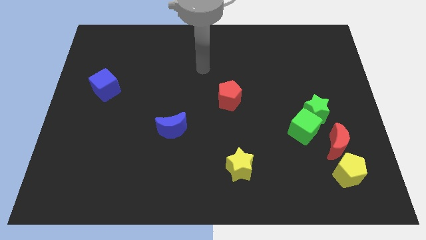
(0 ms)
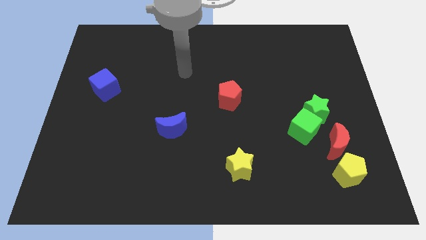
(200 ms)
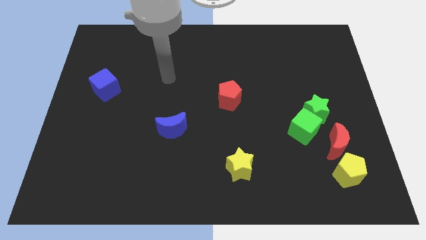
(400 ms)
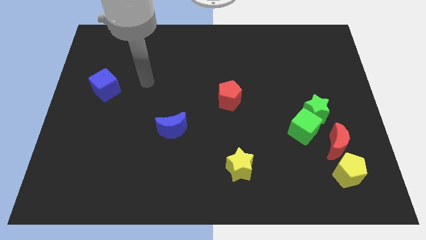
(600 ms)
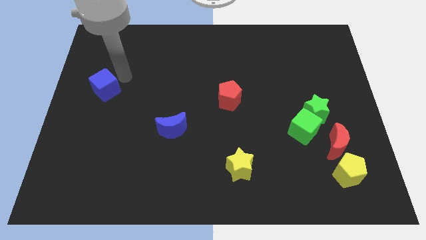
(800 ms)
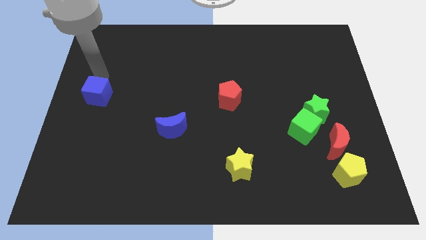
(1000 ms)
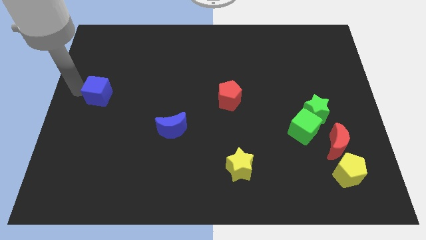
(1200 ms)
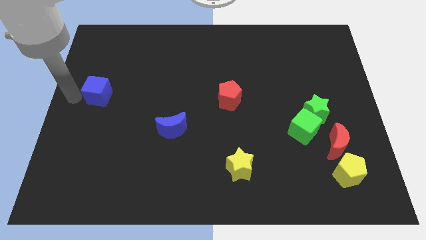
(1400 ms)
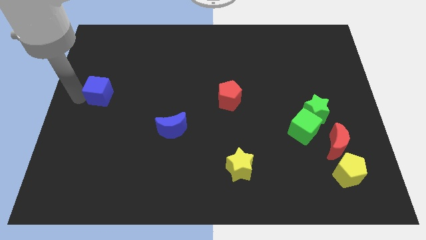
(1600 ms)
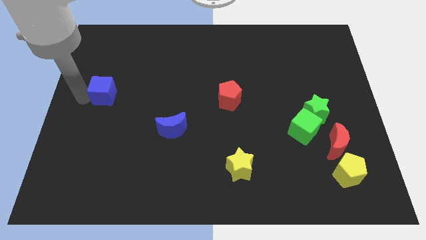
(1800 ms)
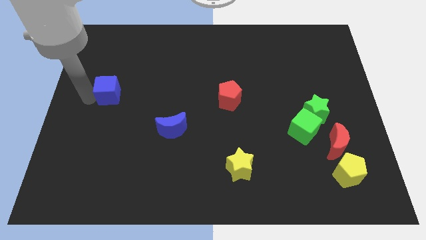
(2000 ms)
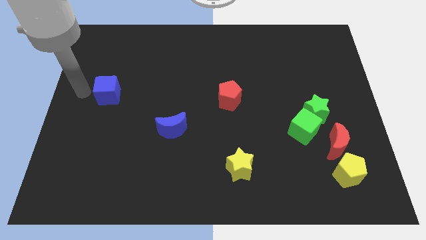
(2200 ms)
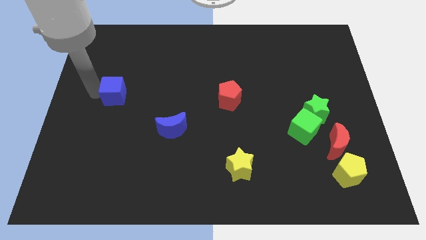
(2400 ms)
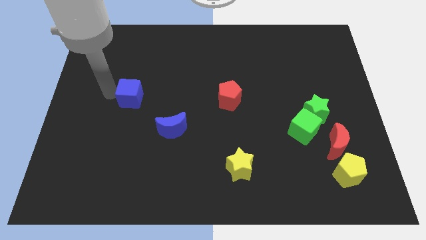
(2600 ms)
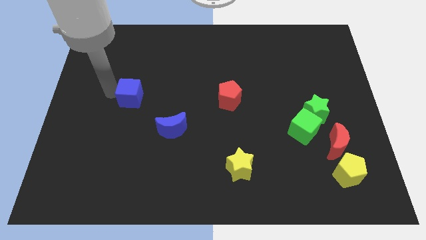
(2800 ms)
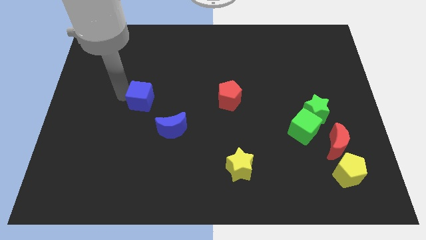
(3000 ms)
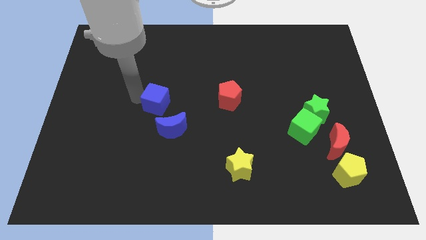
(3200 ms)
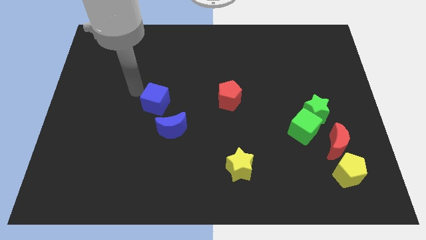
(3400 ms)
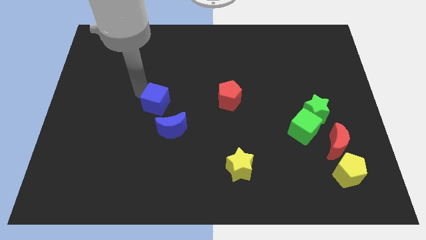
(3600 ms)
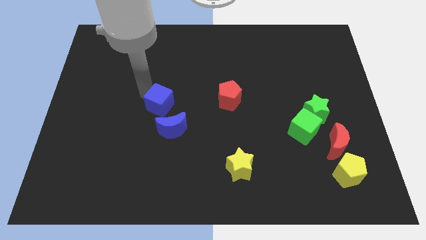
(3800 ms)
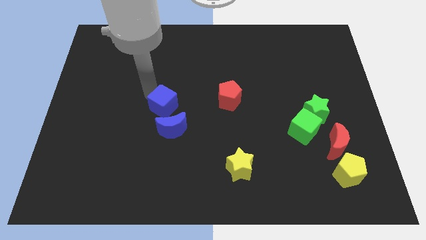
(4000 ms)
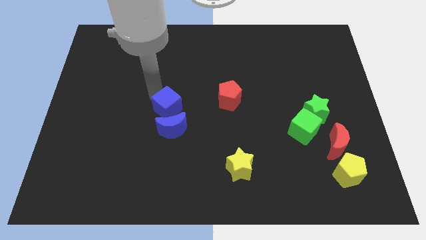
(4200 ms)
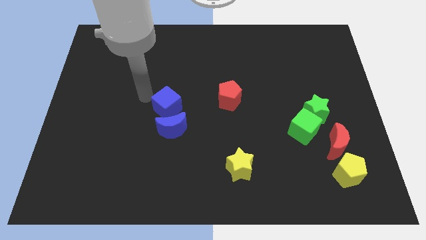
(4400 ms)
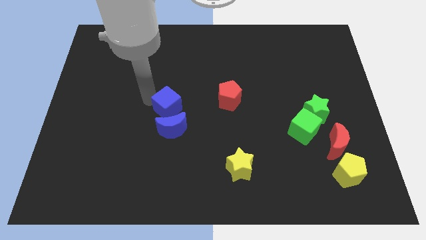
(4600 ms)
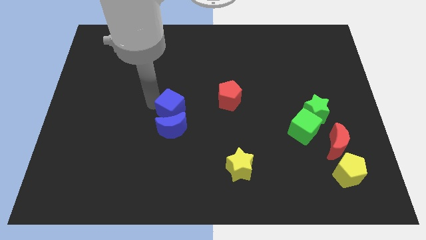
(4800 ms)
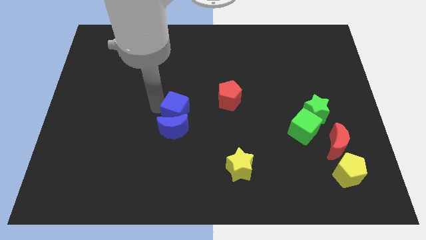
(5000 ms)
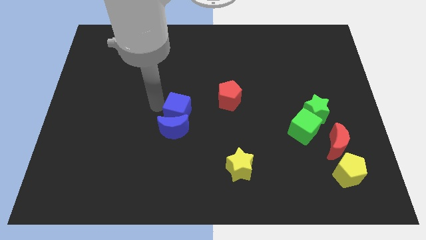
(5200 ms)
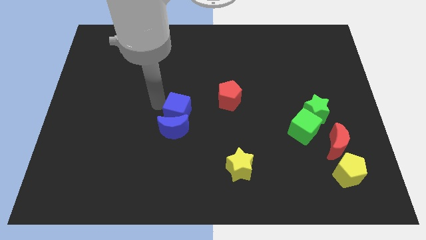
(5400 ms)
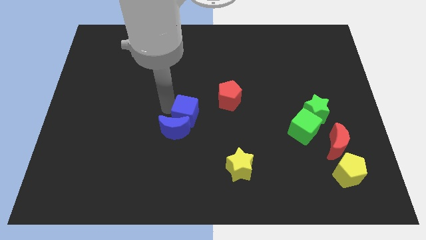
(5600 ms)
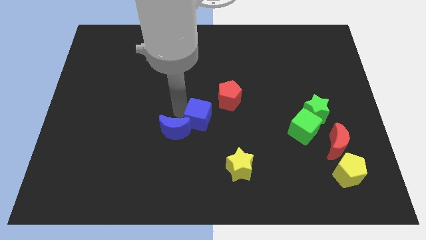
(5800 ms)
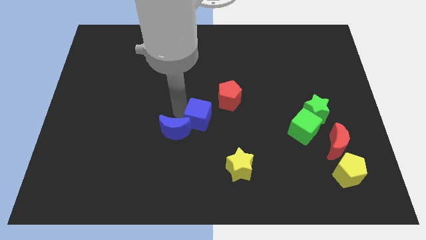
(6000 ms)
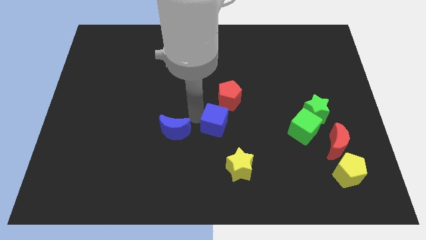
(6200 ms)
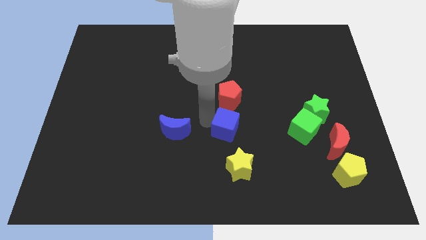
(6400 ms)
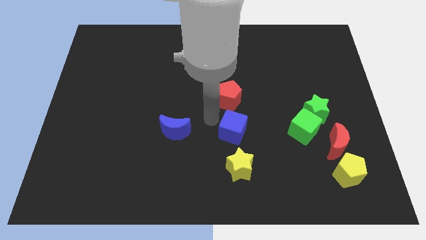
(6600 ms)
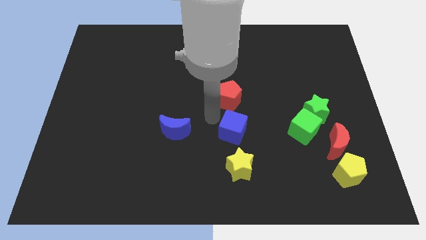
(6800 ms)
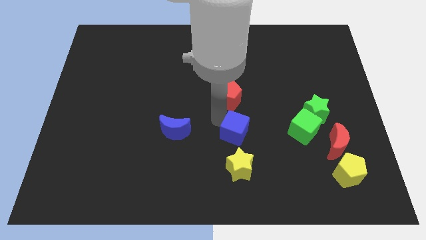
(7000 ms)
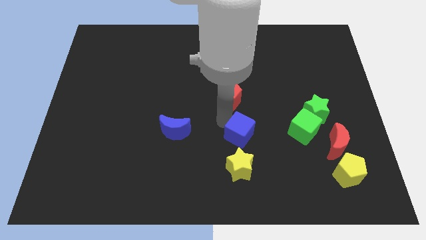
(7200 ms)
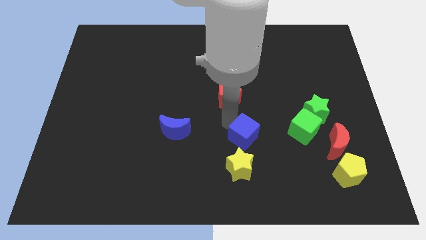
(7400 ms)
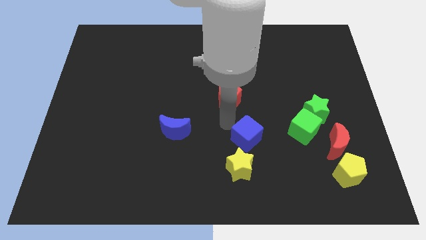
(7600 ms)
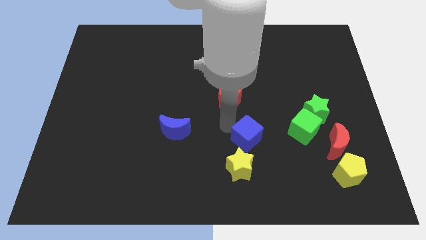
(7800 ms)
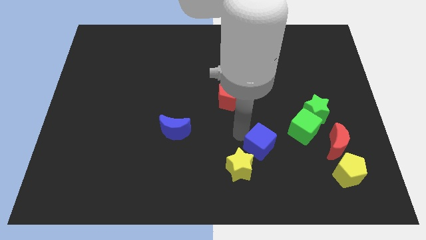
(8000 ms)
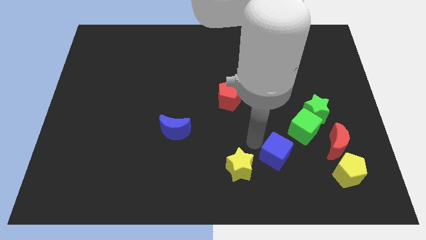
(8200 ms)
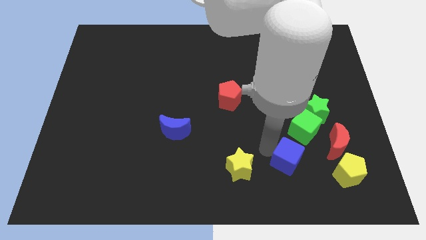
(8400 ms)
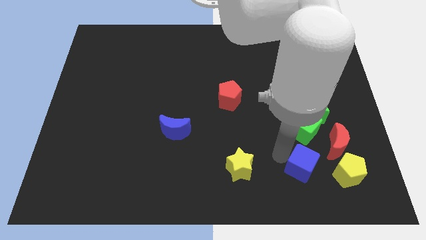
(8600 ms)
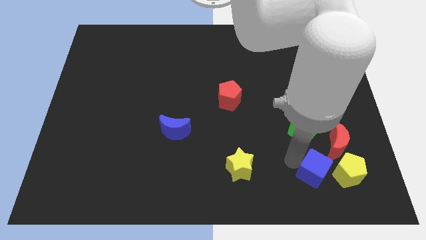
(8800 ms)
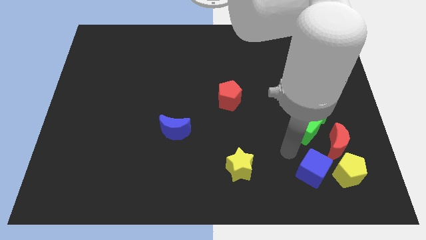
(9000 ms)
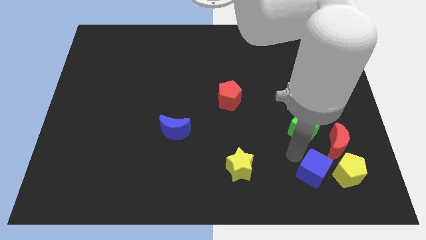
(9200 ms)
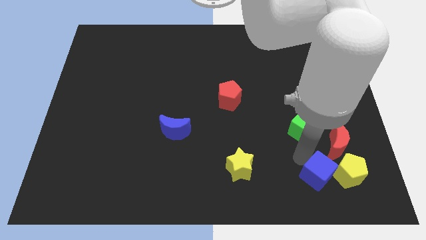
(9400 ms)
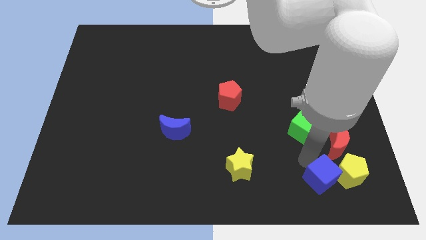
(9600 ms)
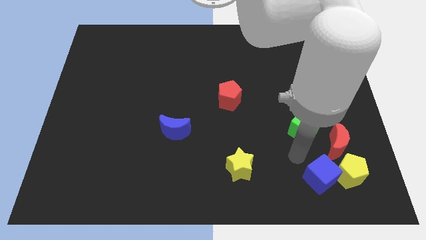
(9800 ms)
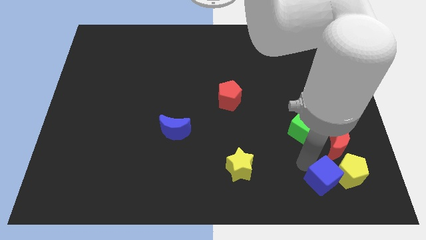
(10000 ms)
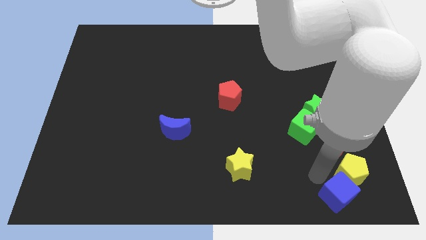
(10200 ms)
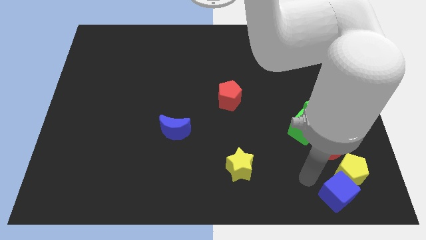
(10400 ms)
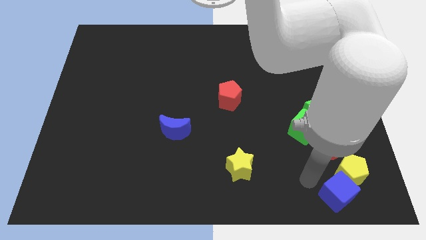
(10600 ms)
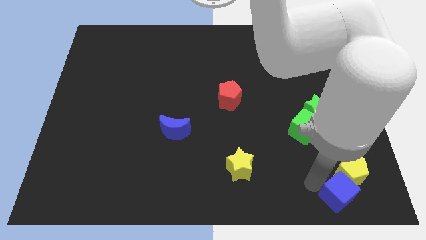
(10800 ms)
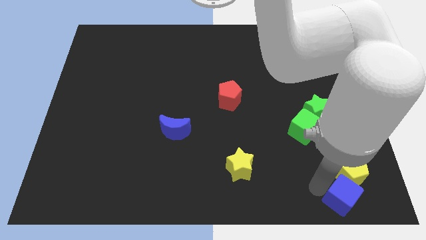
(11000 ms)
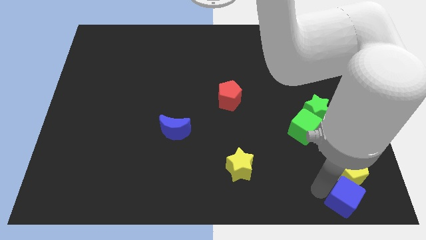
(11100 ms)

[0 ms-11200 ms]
slide the blue cube to the lower right corner
